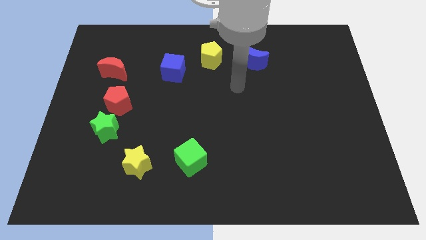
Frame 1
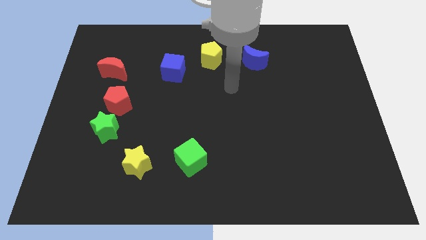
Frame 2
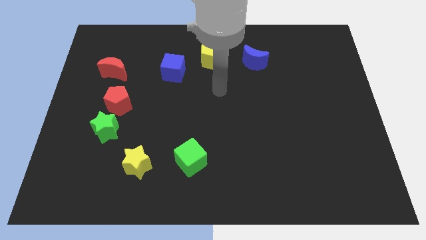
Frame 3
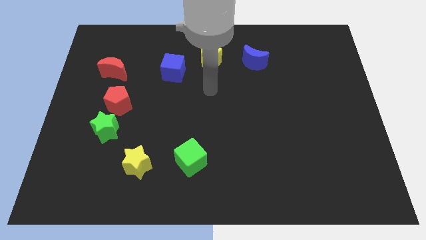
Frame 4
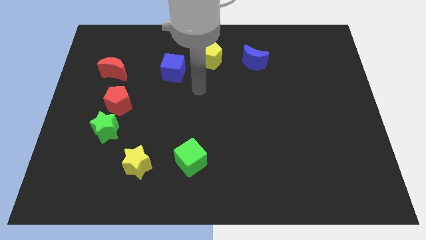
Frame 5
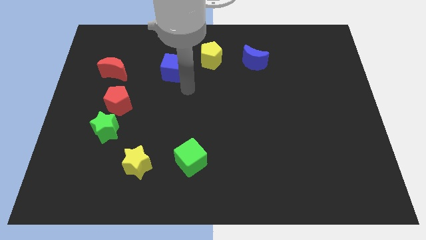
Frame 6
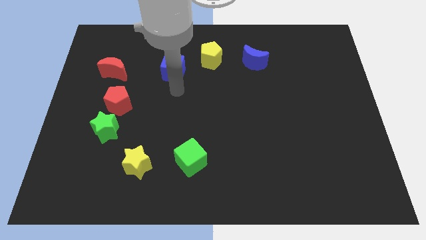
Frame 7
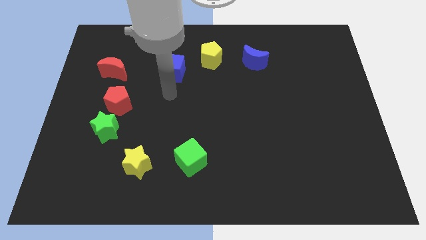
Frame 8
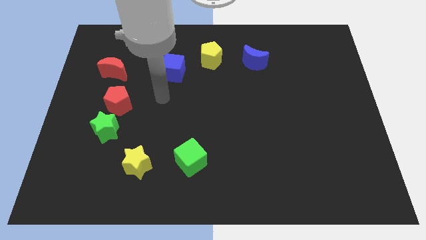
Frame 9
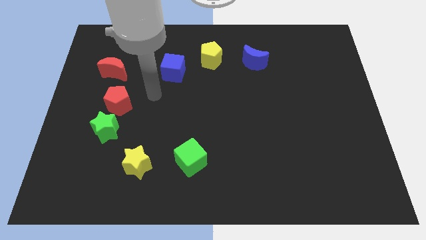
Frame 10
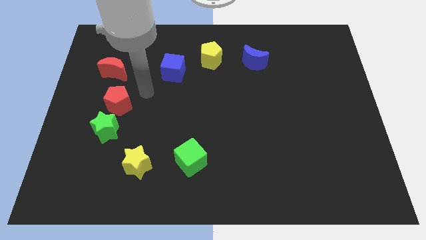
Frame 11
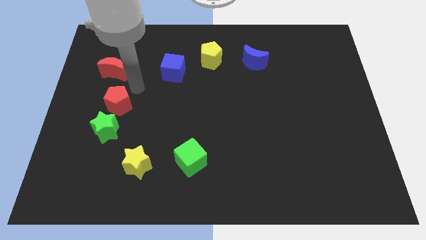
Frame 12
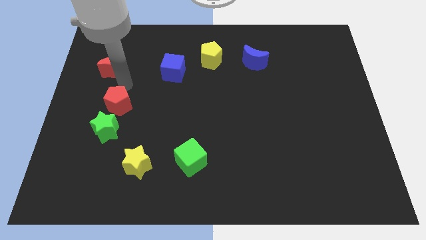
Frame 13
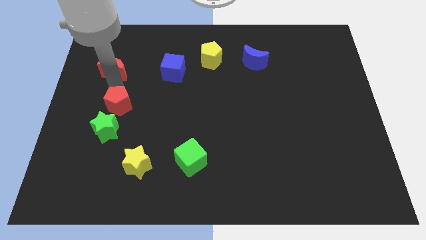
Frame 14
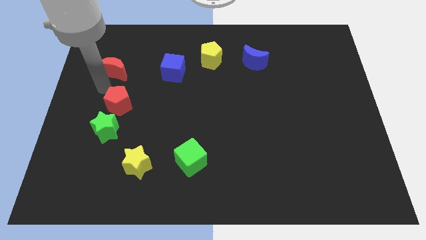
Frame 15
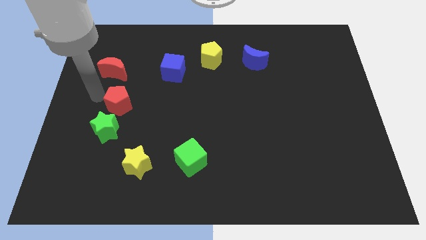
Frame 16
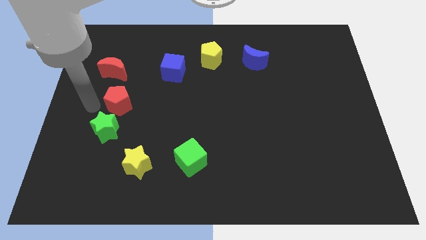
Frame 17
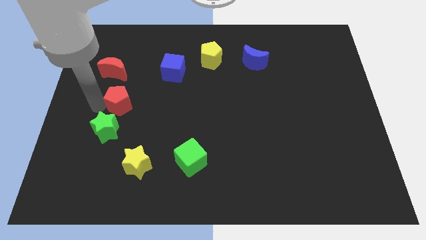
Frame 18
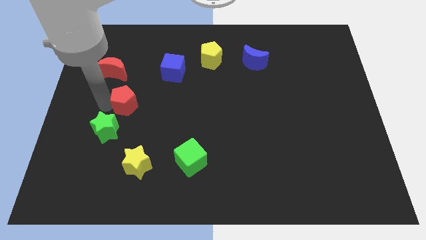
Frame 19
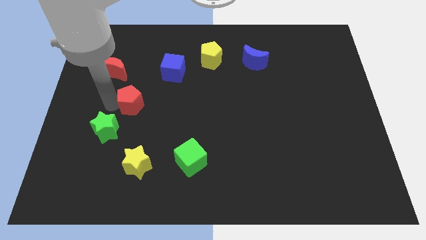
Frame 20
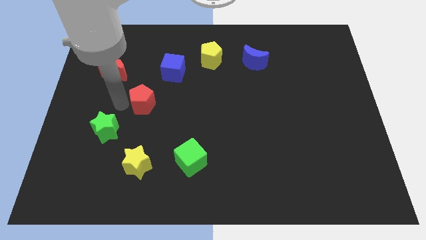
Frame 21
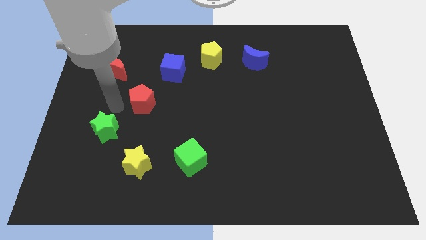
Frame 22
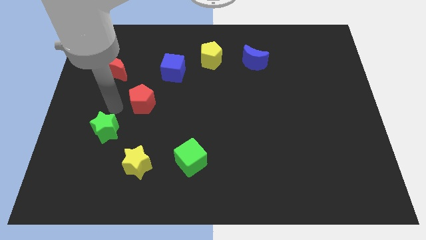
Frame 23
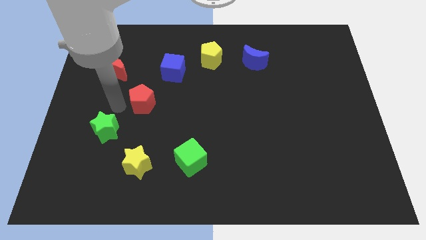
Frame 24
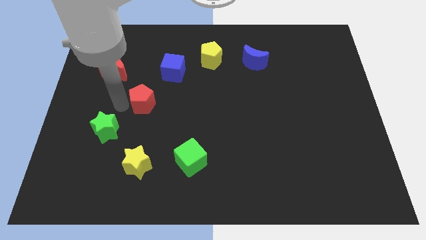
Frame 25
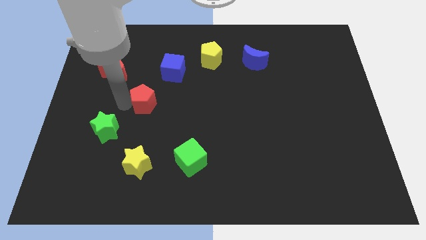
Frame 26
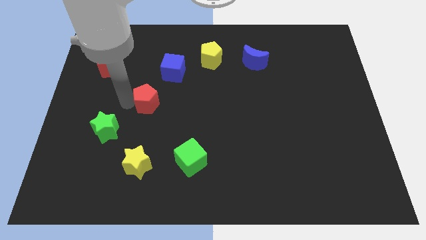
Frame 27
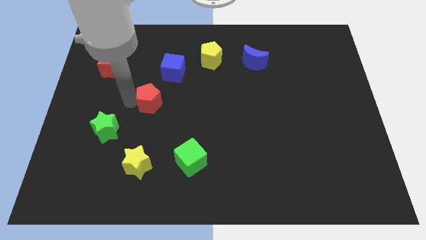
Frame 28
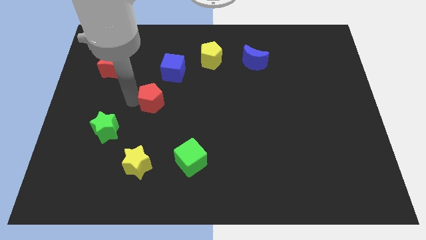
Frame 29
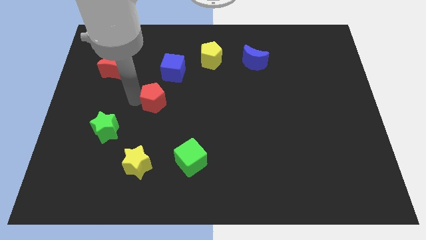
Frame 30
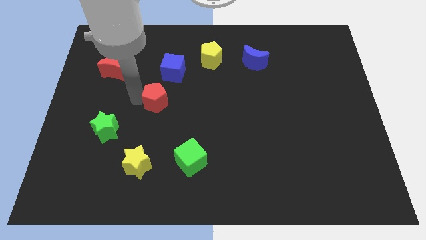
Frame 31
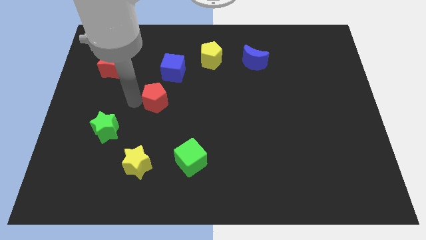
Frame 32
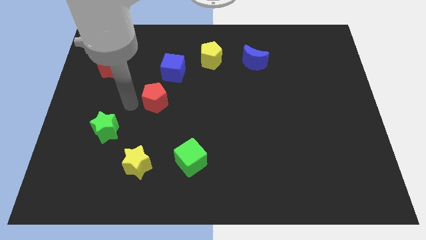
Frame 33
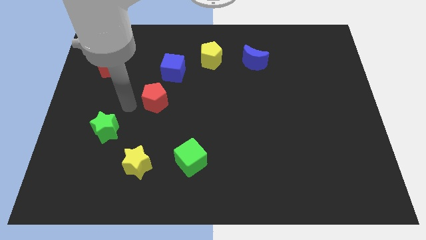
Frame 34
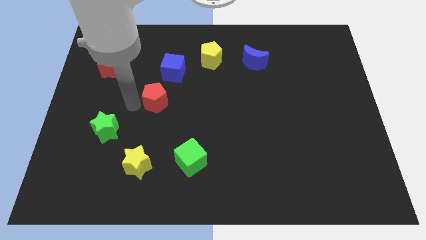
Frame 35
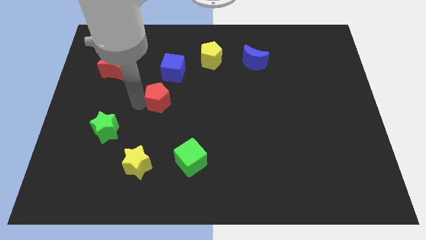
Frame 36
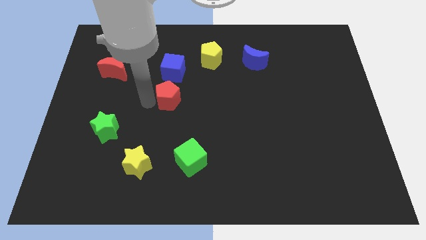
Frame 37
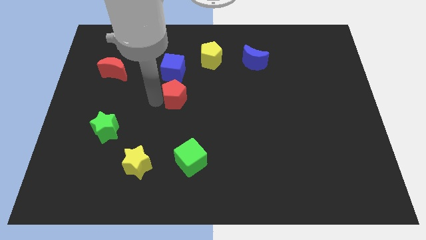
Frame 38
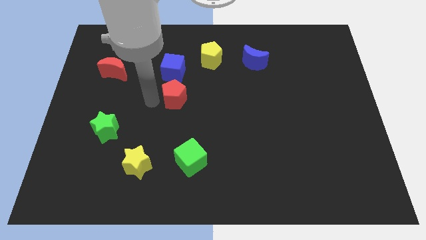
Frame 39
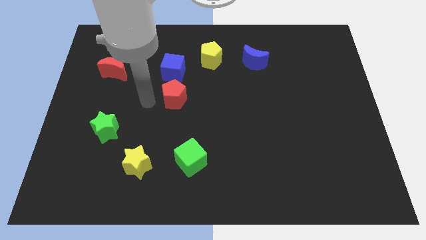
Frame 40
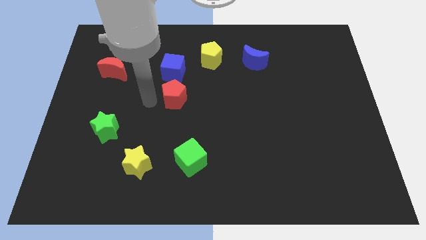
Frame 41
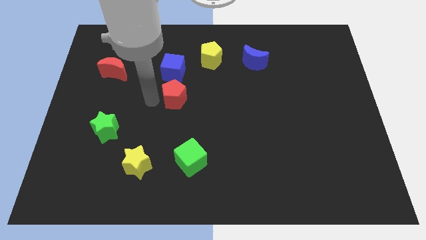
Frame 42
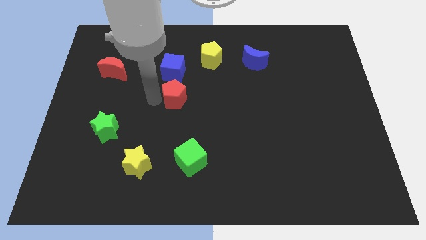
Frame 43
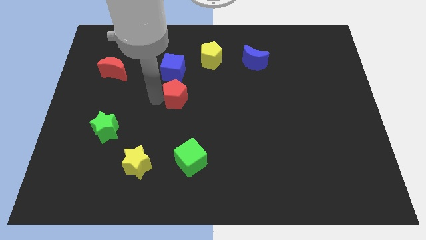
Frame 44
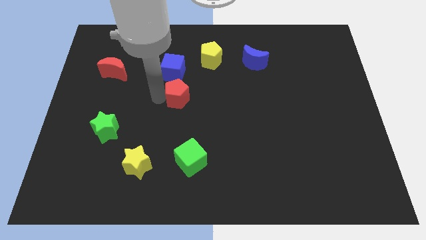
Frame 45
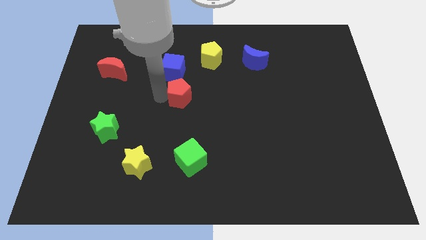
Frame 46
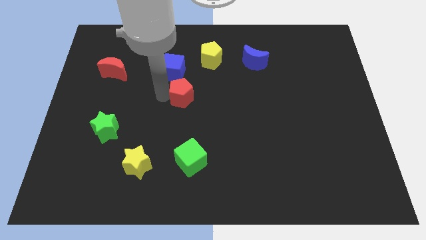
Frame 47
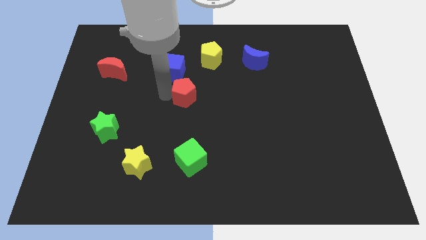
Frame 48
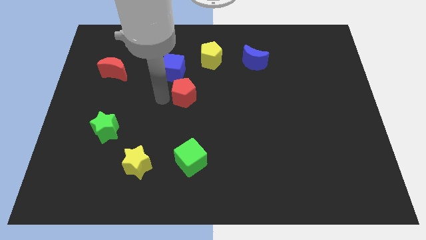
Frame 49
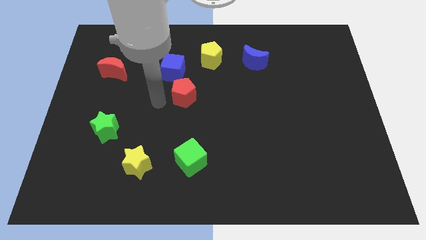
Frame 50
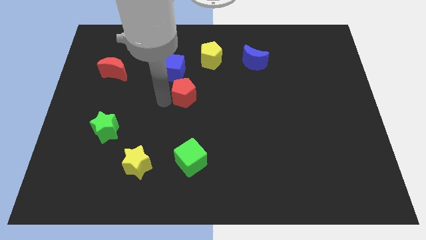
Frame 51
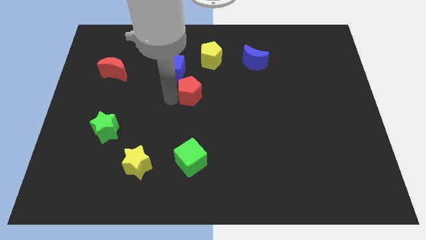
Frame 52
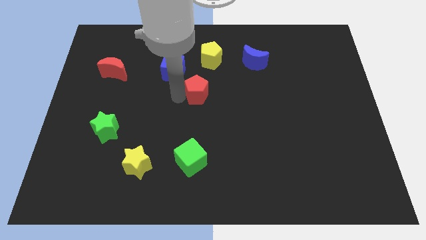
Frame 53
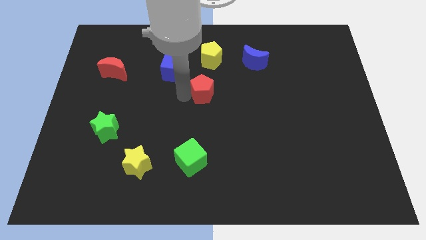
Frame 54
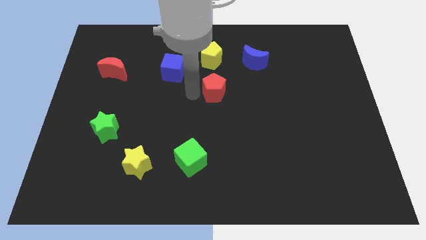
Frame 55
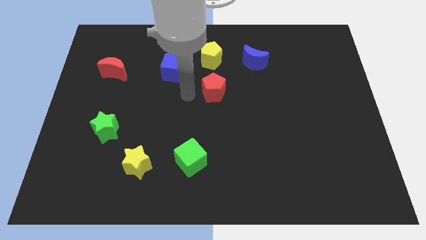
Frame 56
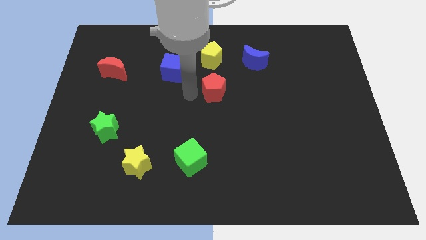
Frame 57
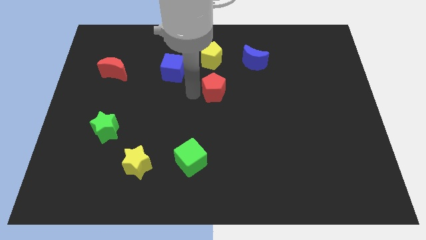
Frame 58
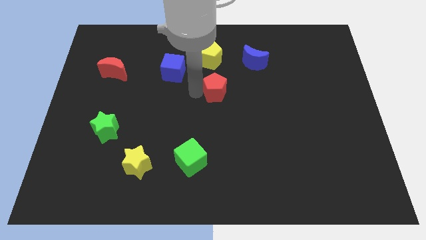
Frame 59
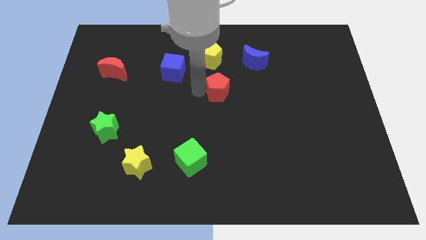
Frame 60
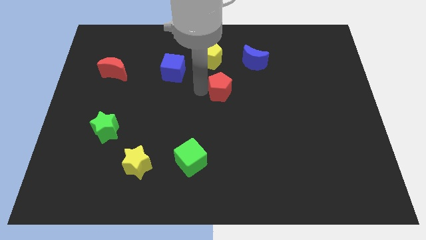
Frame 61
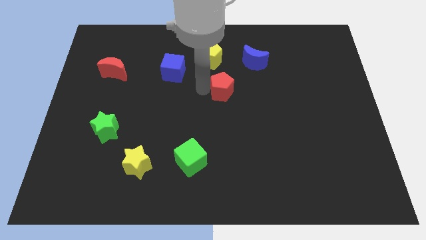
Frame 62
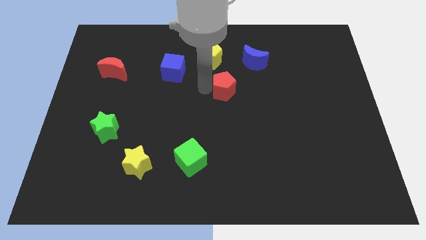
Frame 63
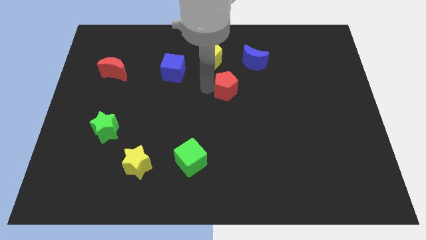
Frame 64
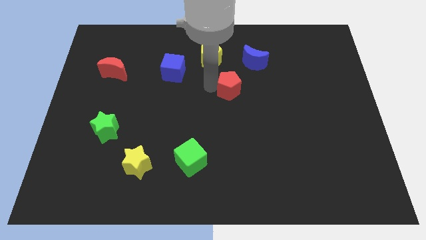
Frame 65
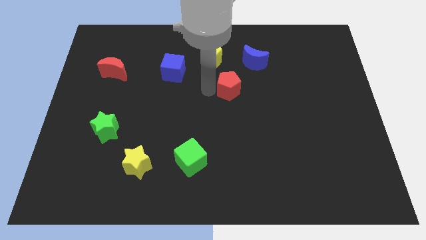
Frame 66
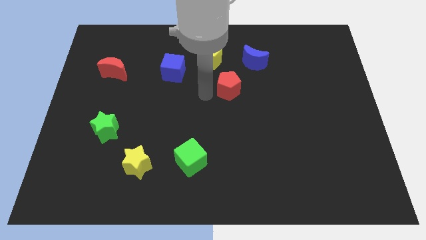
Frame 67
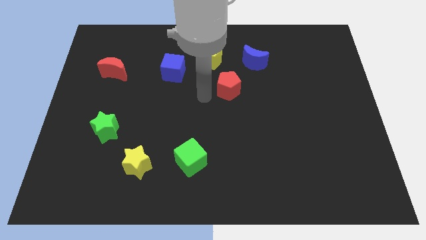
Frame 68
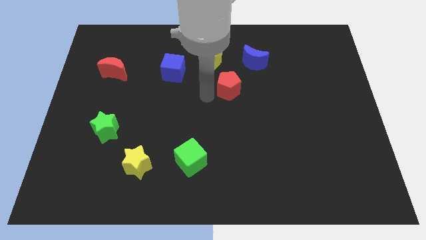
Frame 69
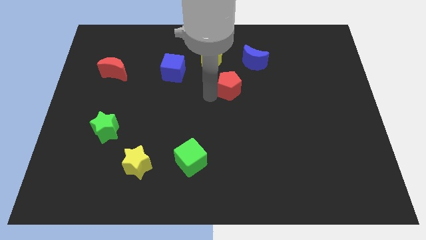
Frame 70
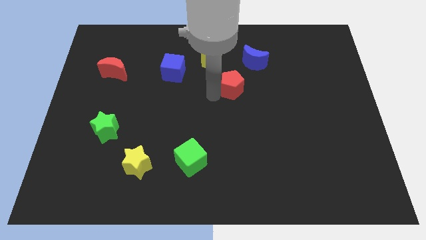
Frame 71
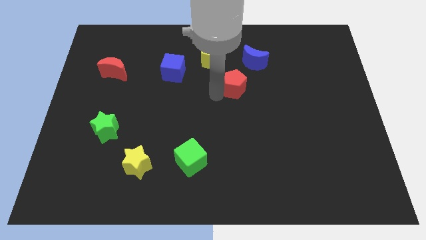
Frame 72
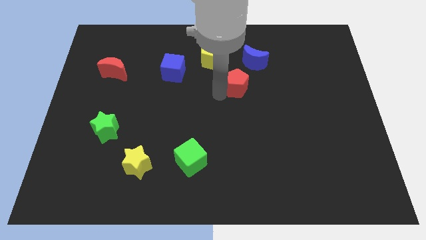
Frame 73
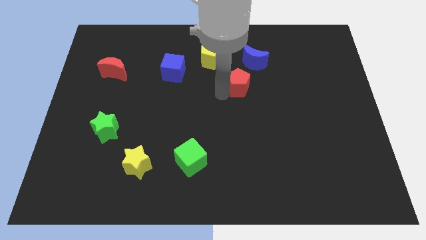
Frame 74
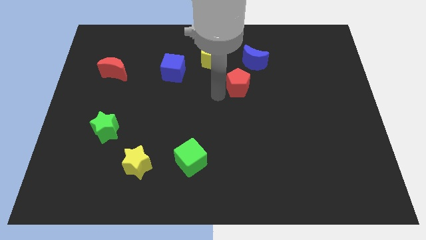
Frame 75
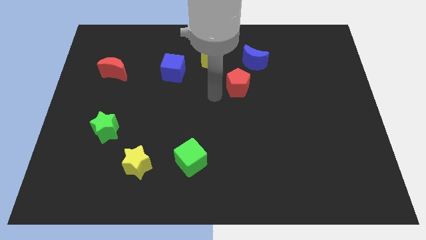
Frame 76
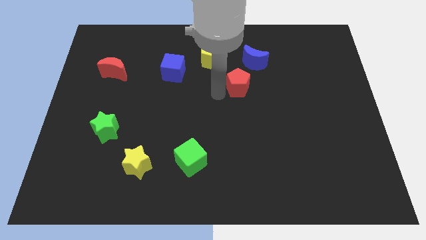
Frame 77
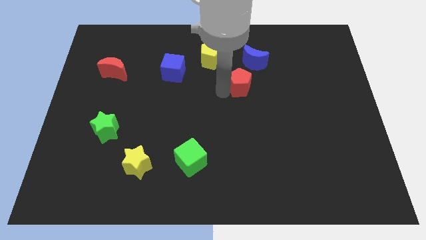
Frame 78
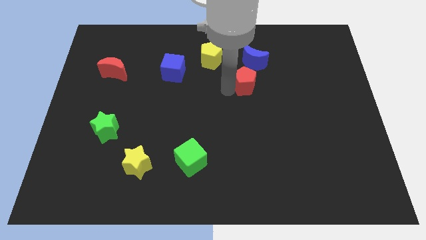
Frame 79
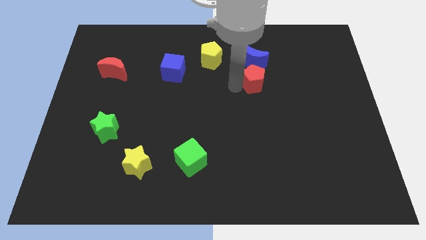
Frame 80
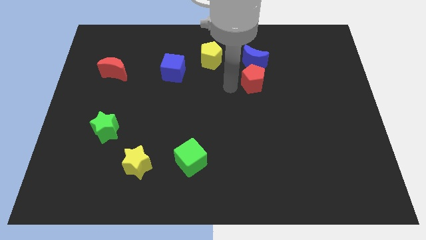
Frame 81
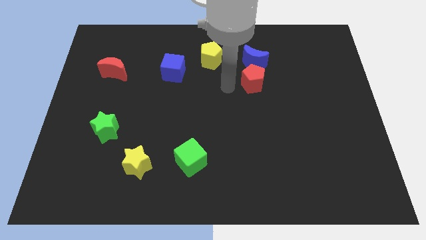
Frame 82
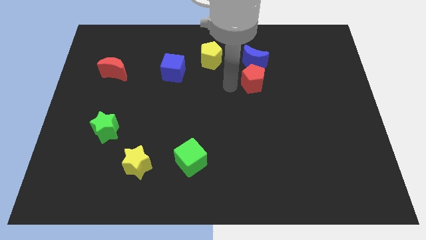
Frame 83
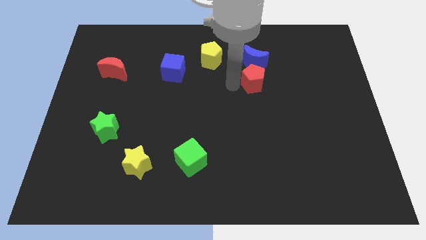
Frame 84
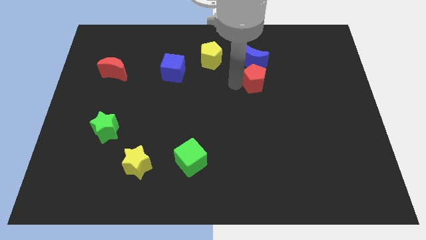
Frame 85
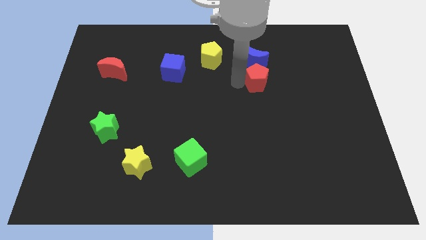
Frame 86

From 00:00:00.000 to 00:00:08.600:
move the red pentagon diagonally down and to the right of the blue moon
